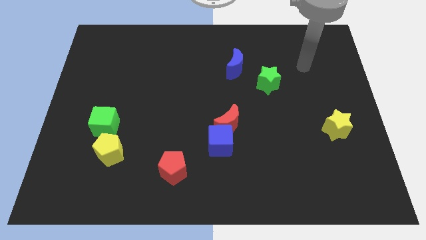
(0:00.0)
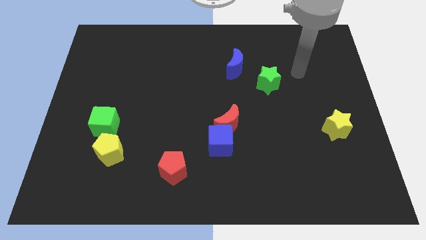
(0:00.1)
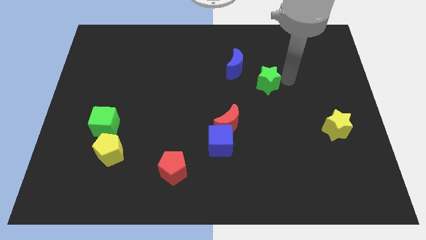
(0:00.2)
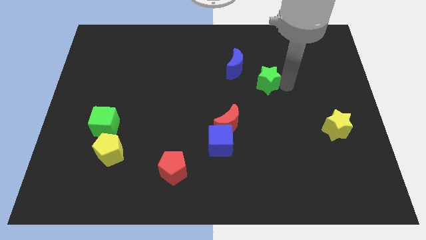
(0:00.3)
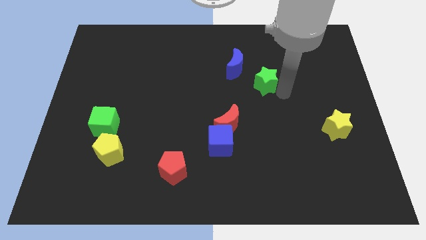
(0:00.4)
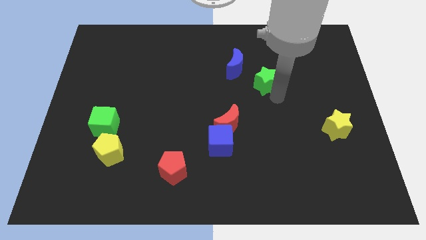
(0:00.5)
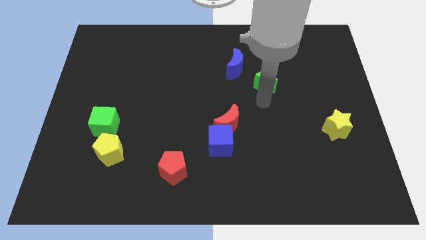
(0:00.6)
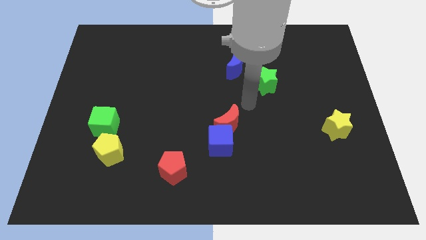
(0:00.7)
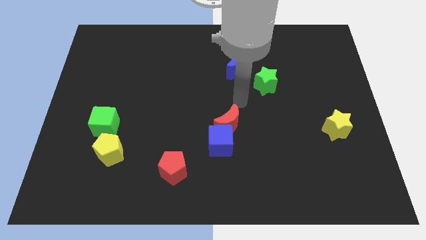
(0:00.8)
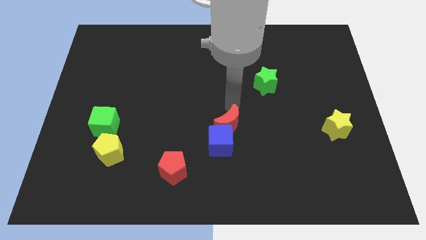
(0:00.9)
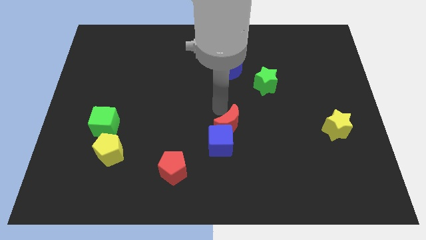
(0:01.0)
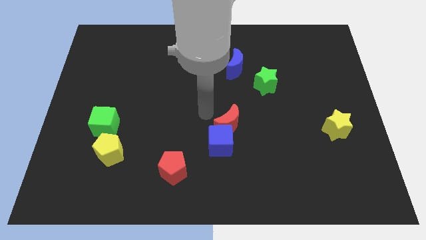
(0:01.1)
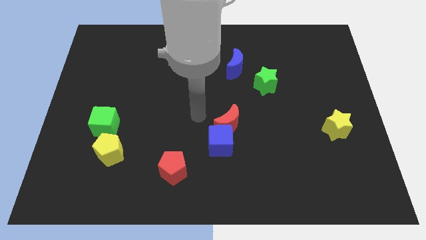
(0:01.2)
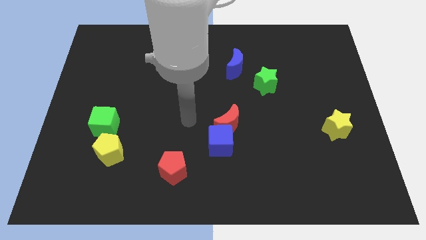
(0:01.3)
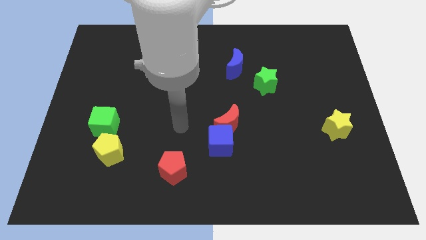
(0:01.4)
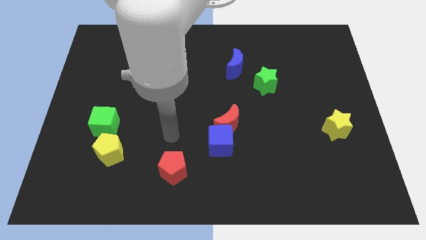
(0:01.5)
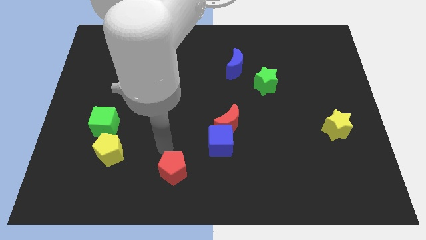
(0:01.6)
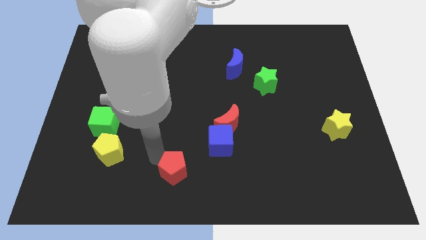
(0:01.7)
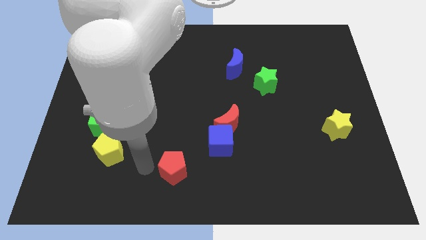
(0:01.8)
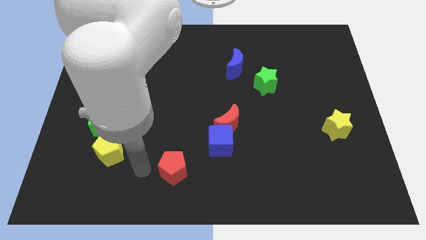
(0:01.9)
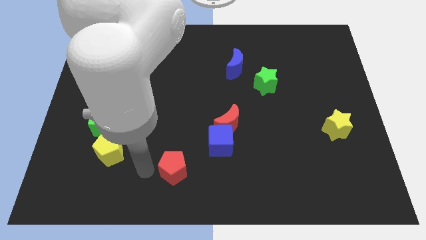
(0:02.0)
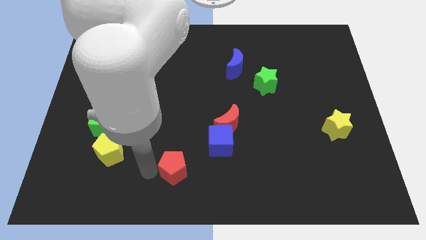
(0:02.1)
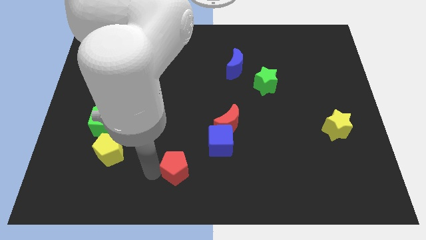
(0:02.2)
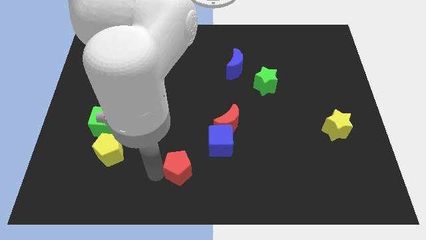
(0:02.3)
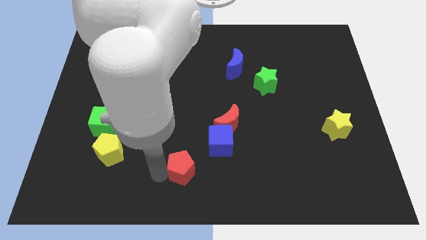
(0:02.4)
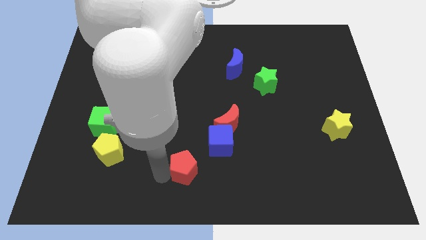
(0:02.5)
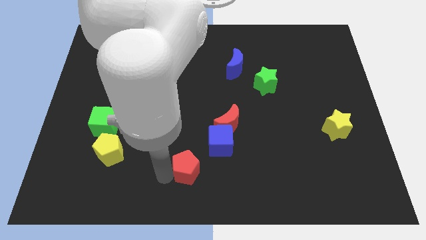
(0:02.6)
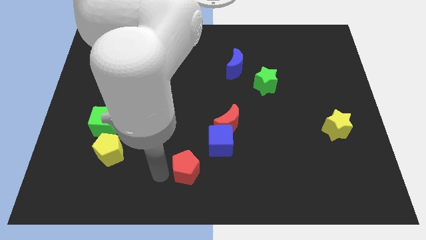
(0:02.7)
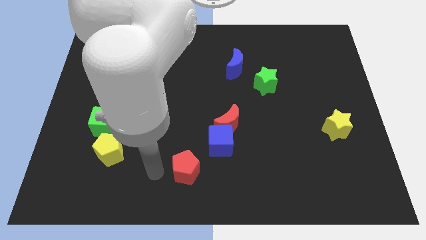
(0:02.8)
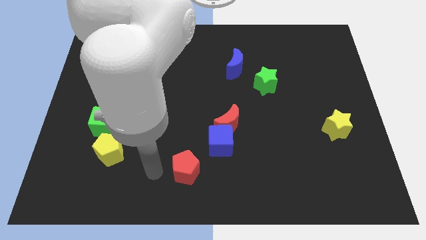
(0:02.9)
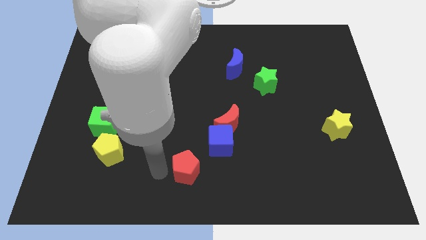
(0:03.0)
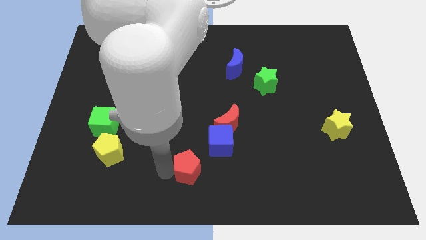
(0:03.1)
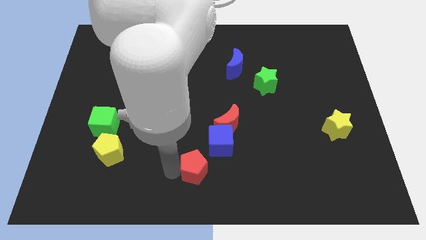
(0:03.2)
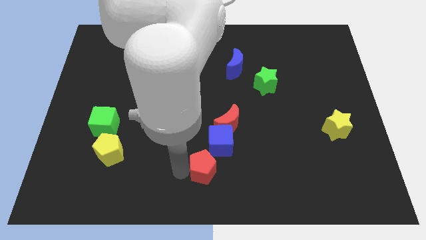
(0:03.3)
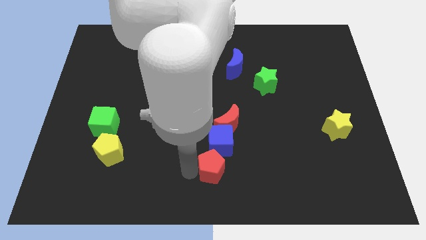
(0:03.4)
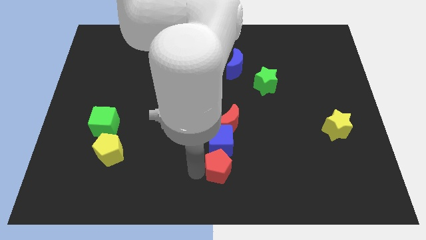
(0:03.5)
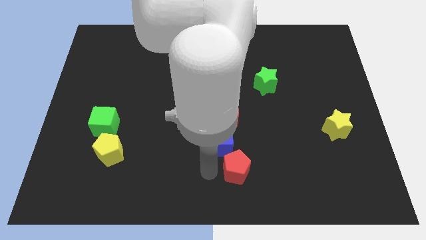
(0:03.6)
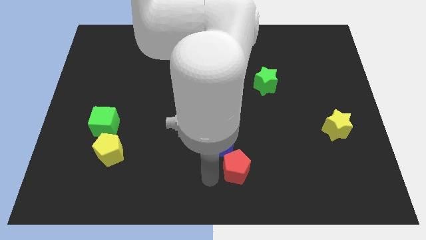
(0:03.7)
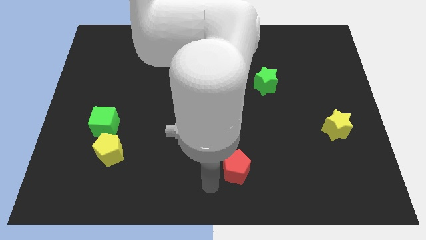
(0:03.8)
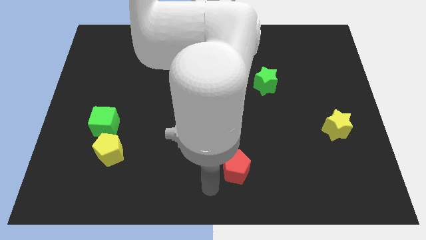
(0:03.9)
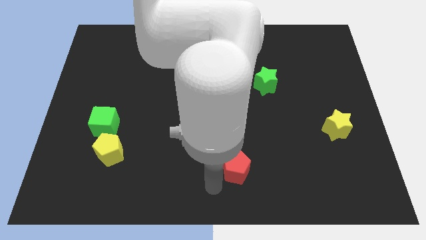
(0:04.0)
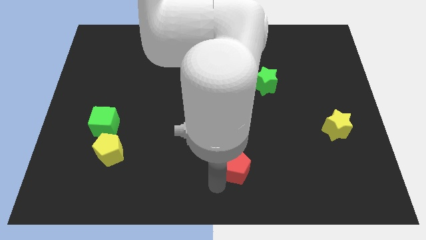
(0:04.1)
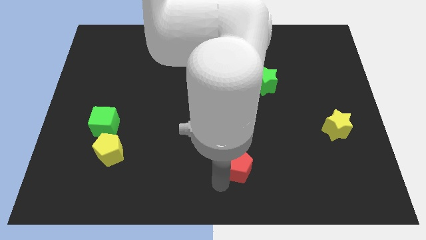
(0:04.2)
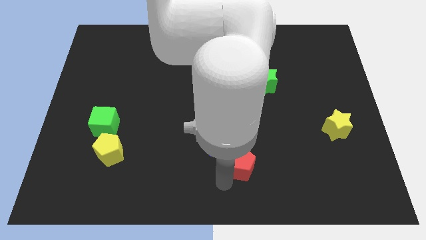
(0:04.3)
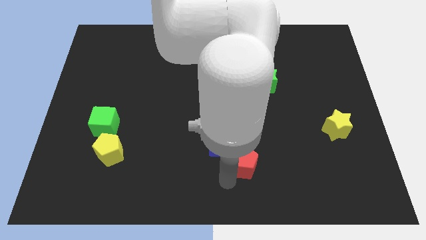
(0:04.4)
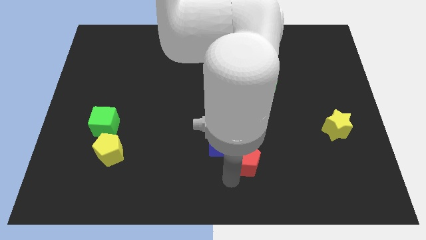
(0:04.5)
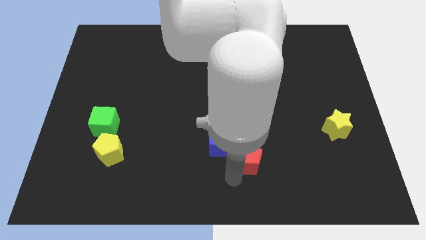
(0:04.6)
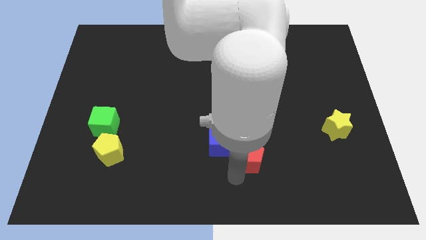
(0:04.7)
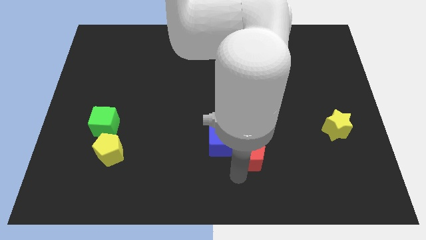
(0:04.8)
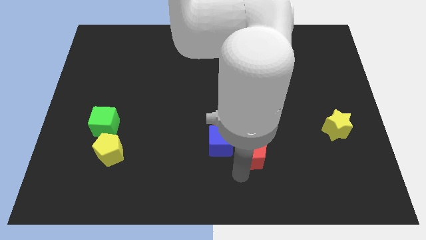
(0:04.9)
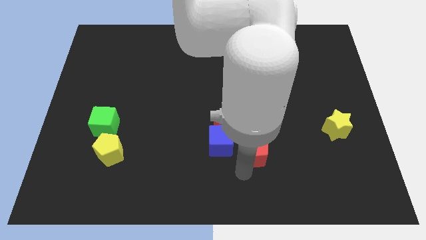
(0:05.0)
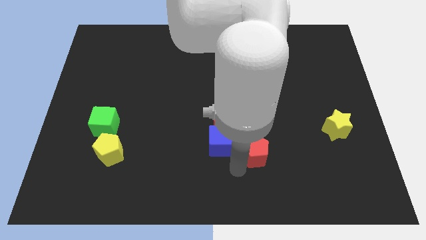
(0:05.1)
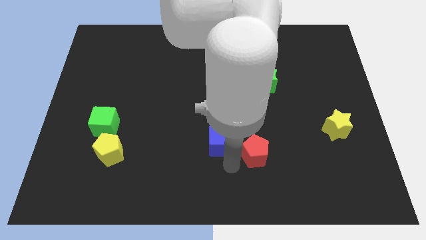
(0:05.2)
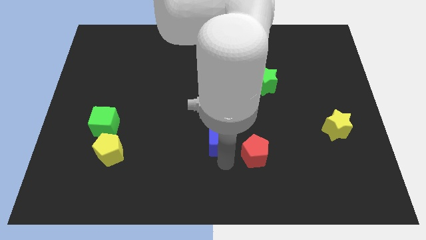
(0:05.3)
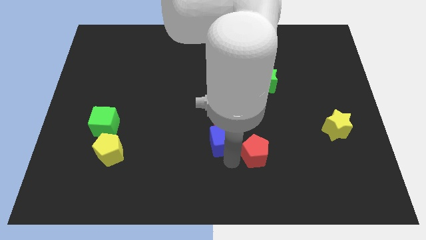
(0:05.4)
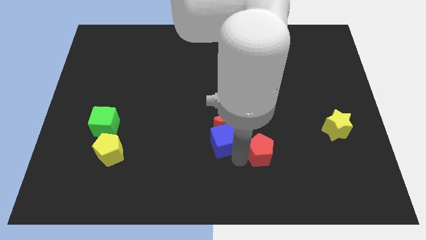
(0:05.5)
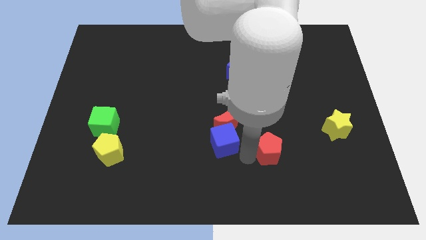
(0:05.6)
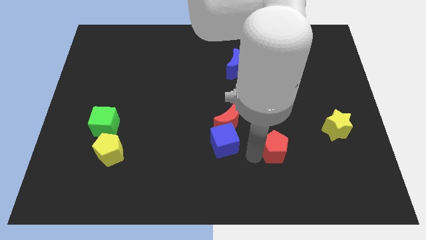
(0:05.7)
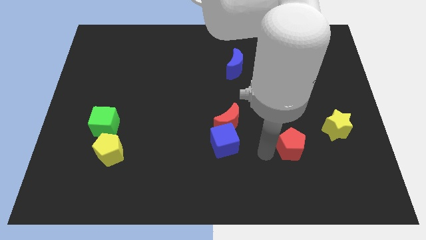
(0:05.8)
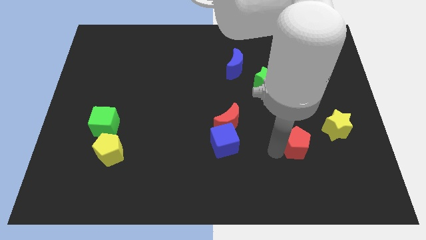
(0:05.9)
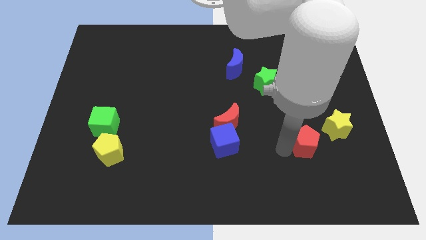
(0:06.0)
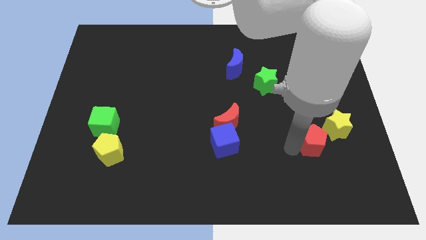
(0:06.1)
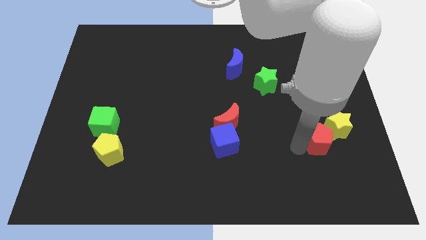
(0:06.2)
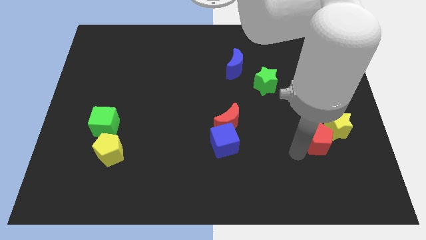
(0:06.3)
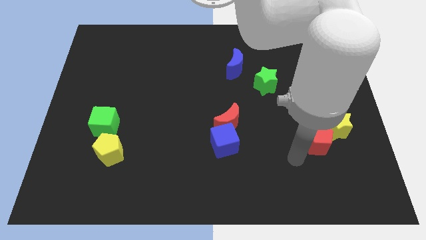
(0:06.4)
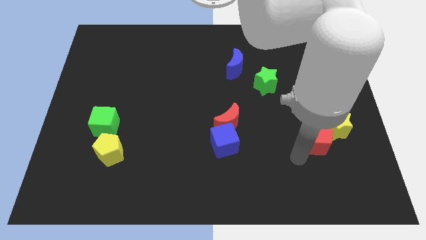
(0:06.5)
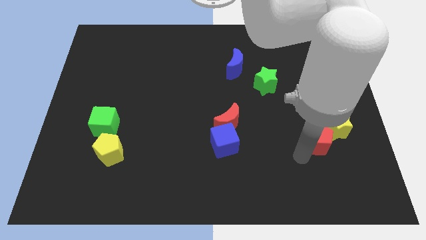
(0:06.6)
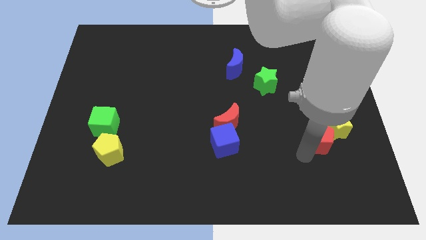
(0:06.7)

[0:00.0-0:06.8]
move the red pentagon to the yellow star
